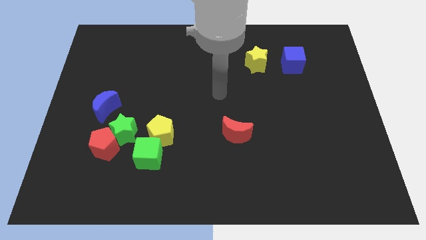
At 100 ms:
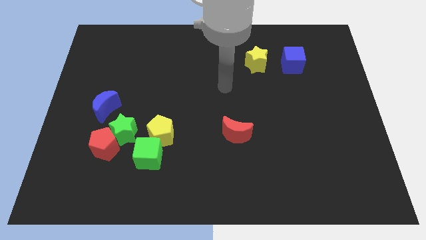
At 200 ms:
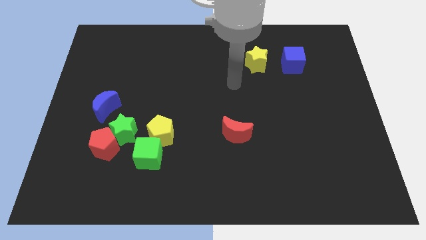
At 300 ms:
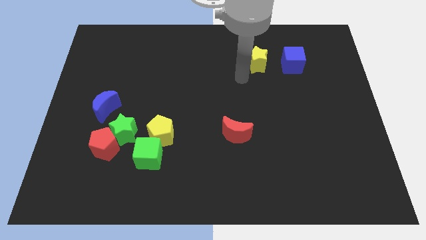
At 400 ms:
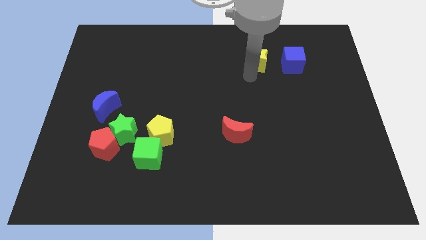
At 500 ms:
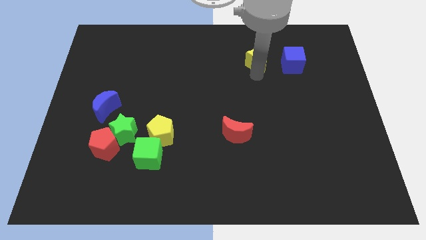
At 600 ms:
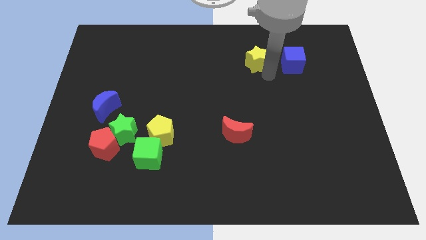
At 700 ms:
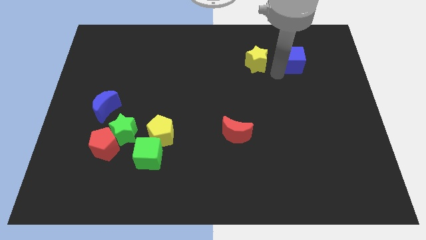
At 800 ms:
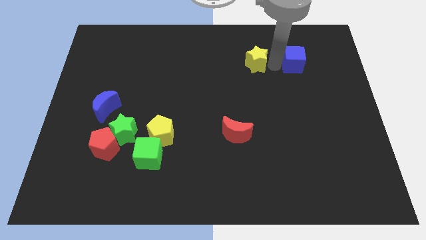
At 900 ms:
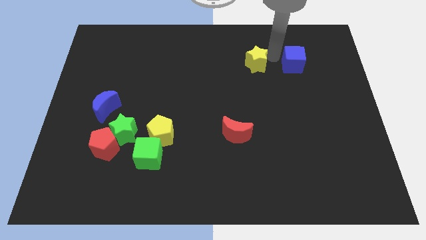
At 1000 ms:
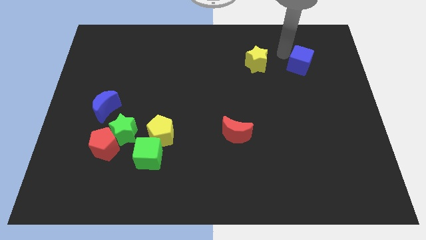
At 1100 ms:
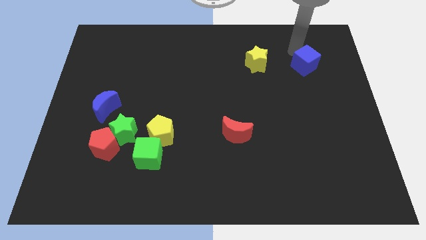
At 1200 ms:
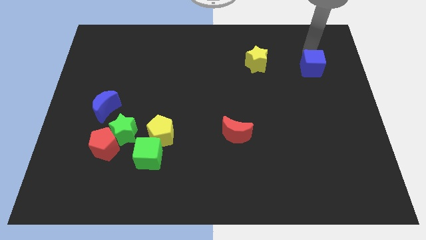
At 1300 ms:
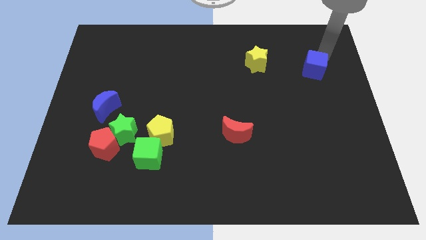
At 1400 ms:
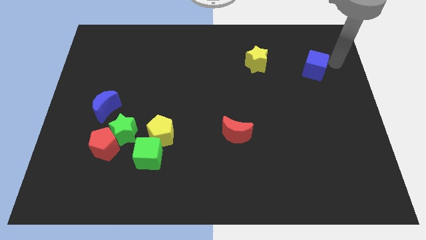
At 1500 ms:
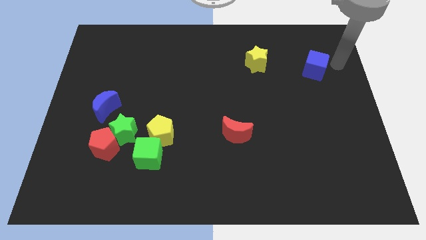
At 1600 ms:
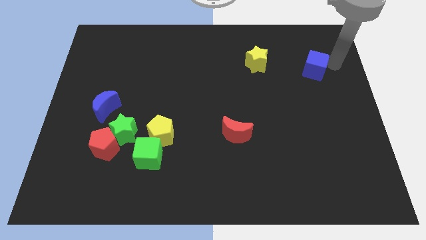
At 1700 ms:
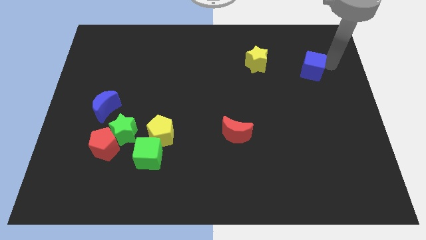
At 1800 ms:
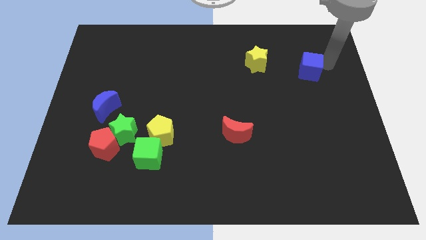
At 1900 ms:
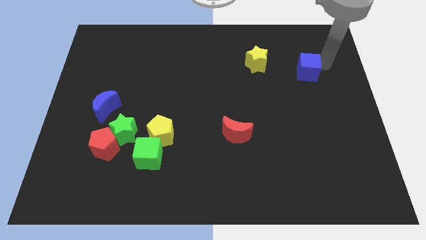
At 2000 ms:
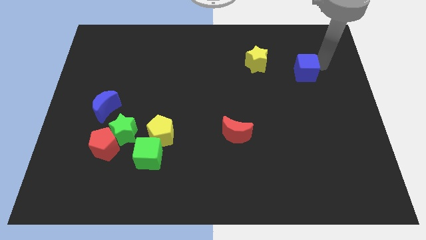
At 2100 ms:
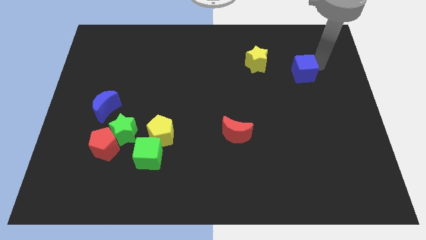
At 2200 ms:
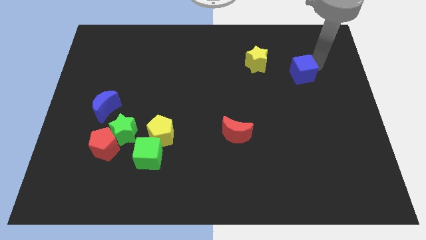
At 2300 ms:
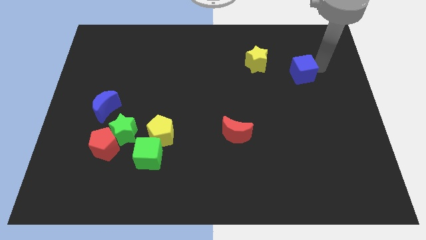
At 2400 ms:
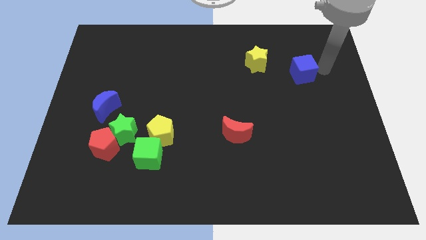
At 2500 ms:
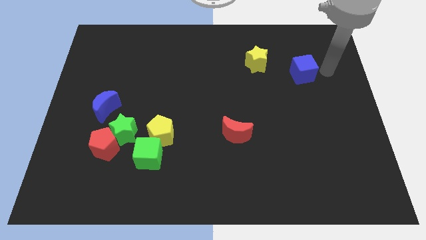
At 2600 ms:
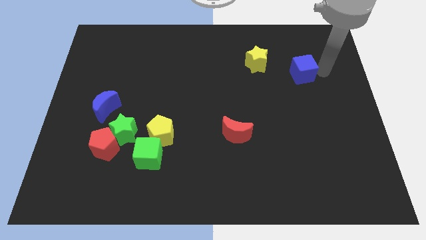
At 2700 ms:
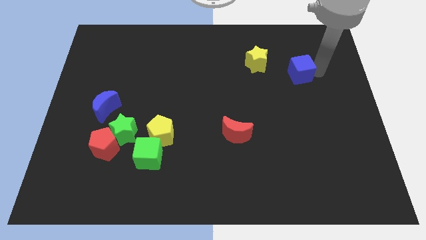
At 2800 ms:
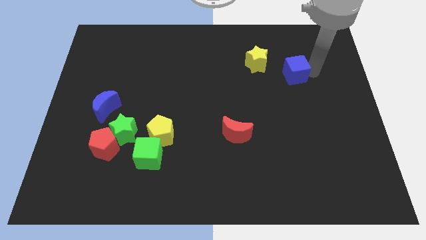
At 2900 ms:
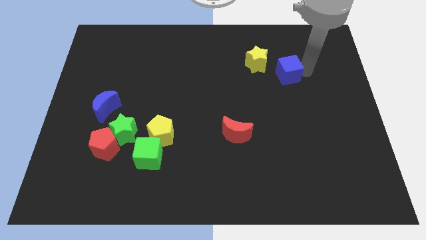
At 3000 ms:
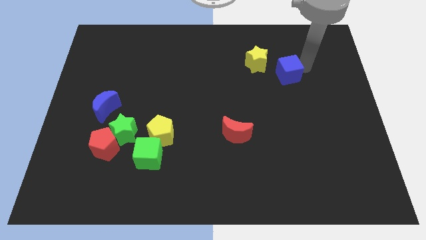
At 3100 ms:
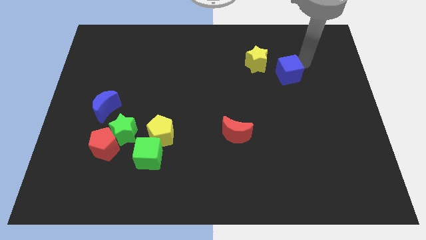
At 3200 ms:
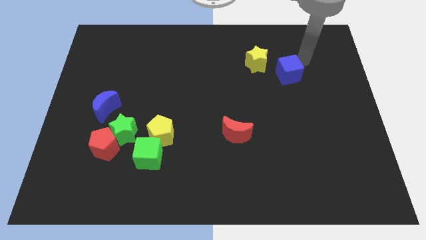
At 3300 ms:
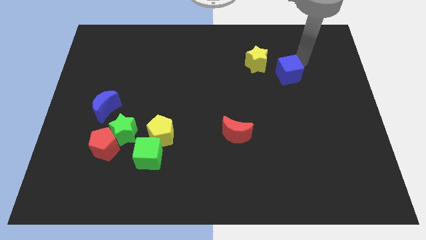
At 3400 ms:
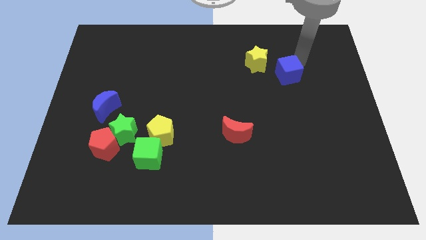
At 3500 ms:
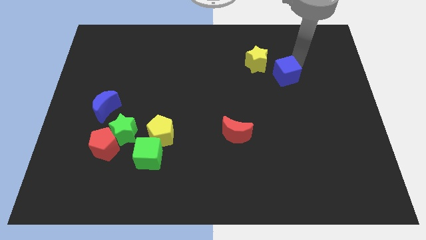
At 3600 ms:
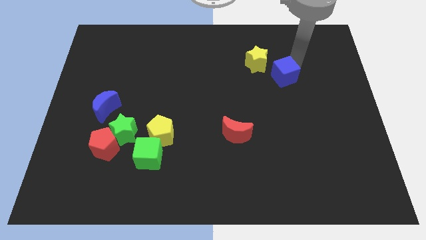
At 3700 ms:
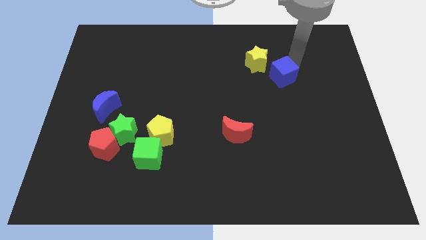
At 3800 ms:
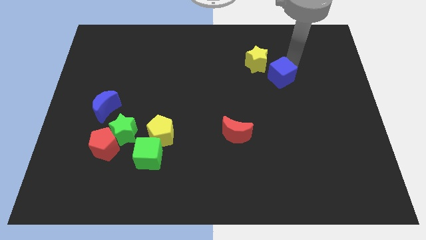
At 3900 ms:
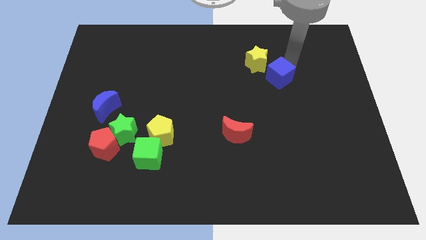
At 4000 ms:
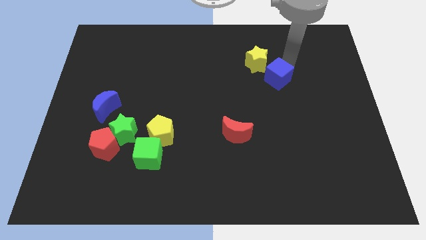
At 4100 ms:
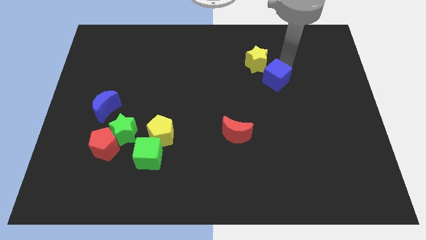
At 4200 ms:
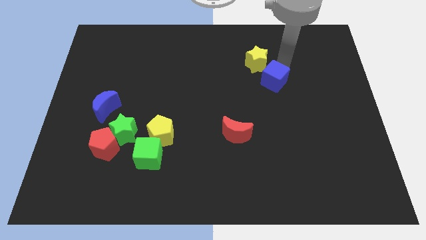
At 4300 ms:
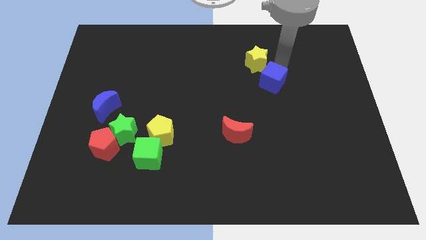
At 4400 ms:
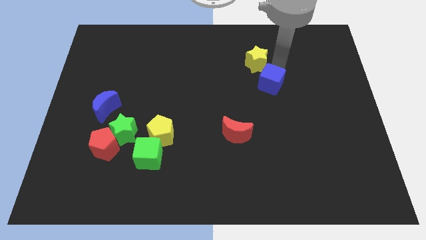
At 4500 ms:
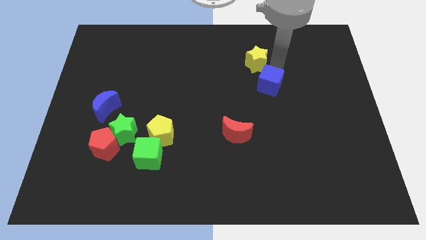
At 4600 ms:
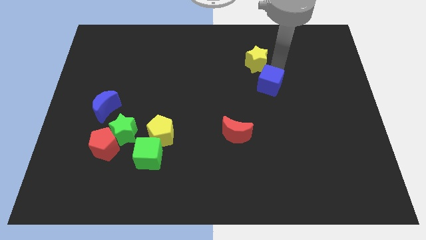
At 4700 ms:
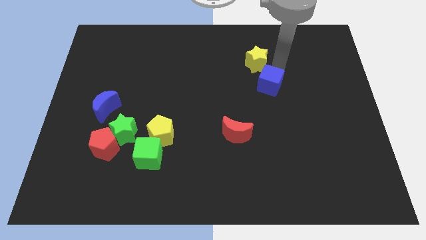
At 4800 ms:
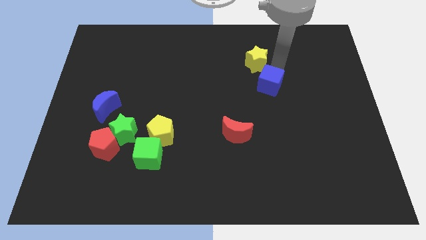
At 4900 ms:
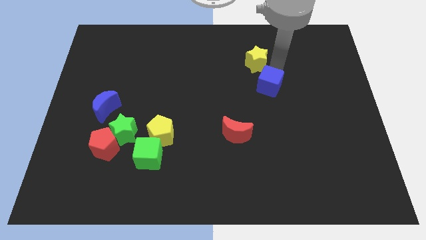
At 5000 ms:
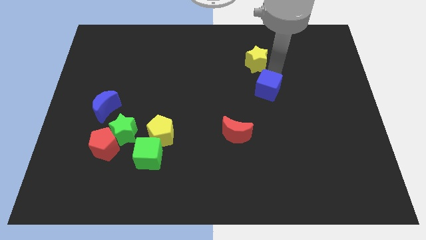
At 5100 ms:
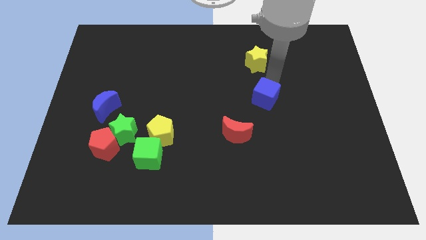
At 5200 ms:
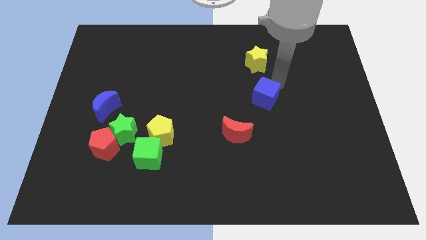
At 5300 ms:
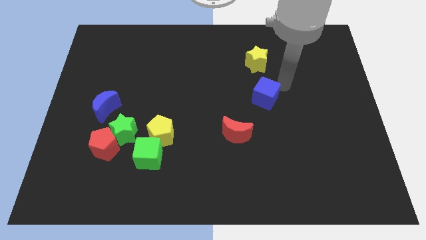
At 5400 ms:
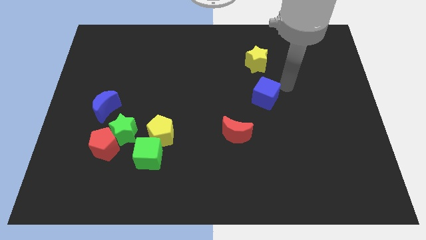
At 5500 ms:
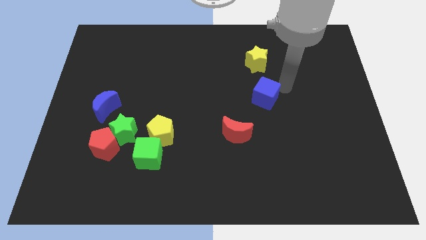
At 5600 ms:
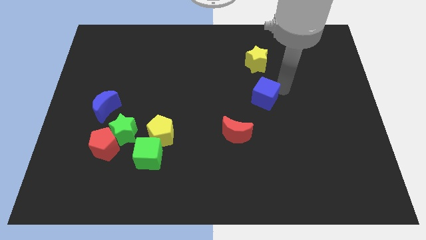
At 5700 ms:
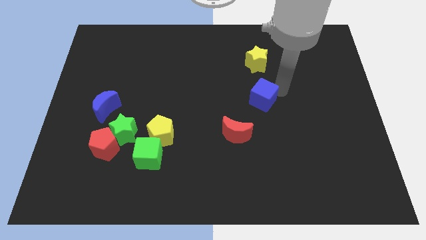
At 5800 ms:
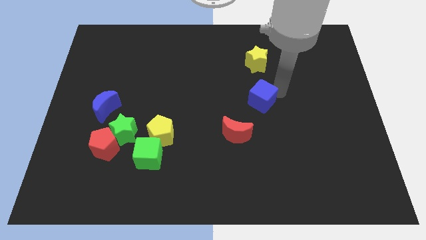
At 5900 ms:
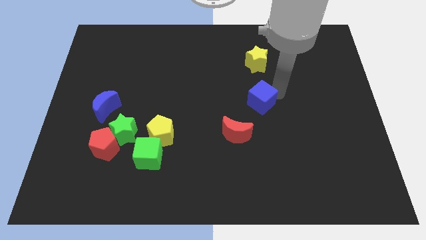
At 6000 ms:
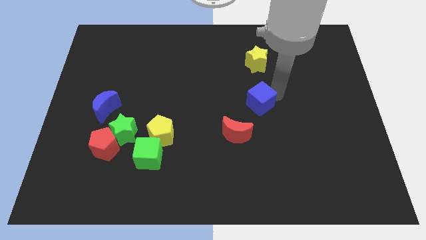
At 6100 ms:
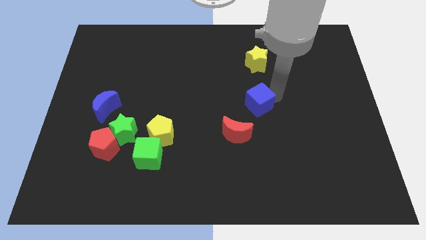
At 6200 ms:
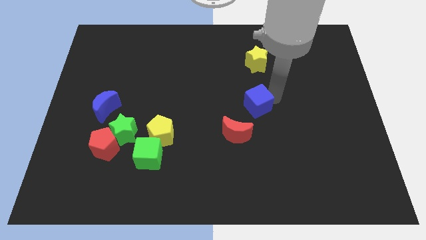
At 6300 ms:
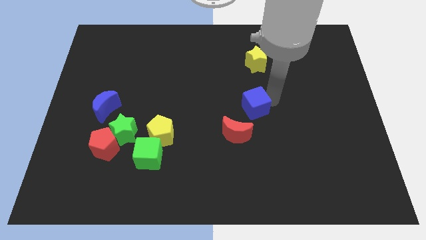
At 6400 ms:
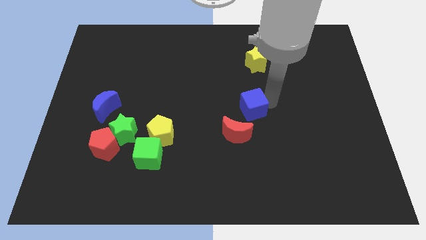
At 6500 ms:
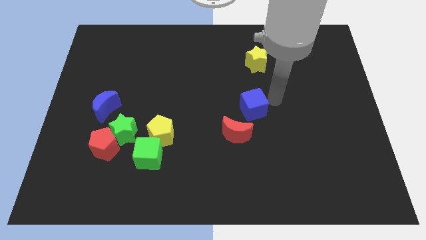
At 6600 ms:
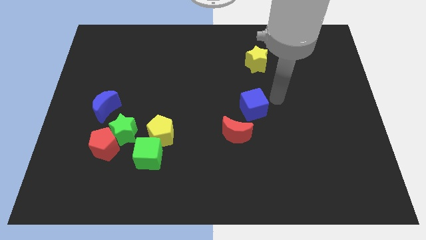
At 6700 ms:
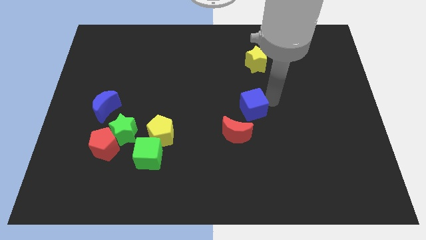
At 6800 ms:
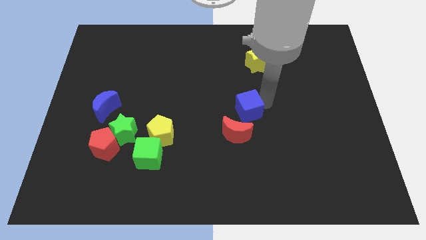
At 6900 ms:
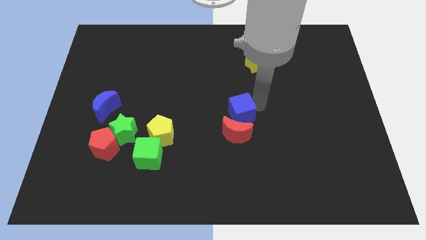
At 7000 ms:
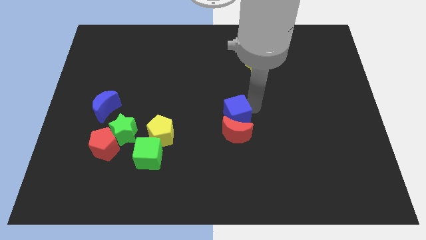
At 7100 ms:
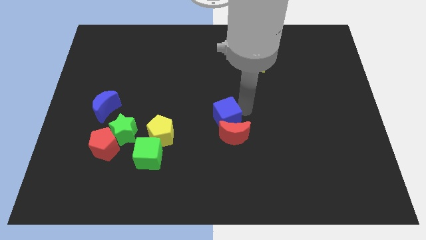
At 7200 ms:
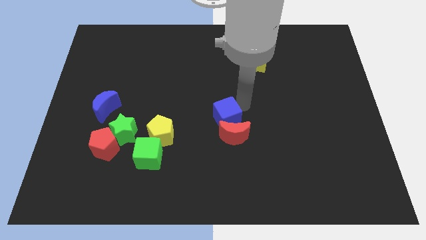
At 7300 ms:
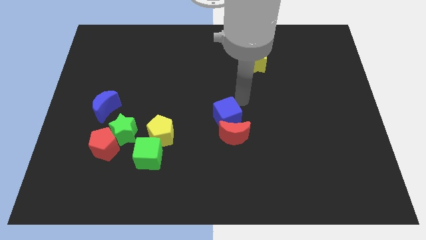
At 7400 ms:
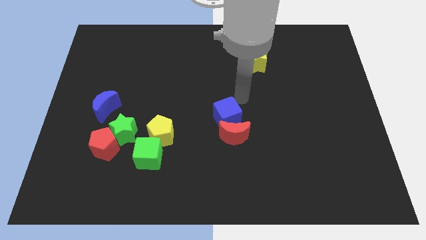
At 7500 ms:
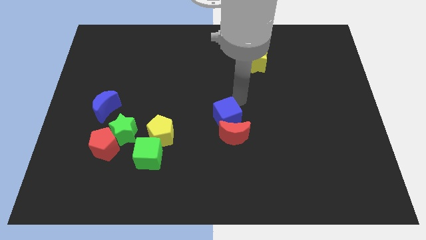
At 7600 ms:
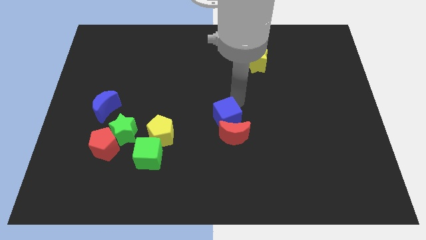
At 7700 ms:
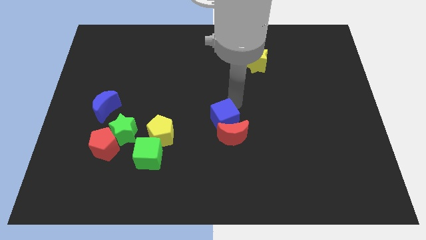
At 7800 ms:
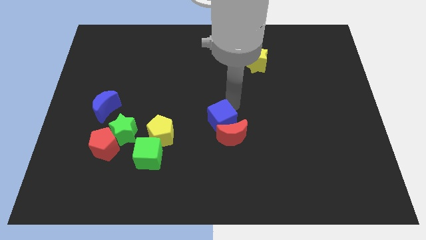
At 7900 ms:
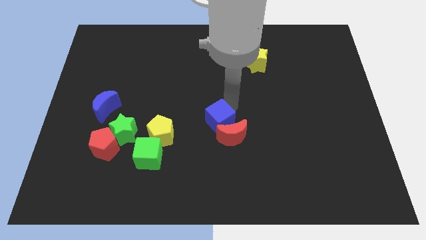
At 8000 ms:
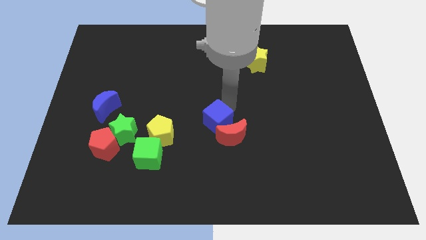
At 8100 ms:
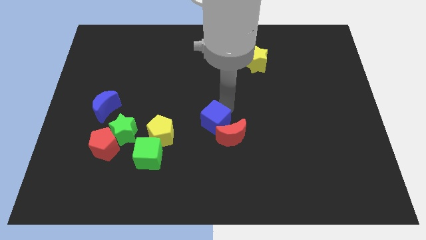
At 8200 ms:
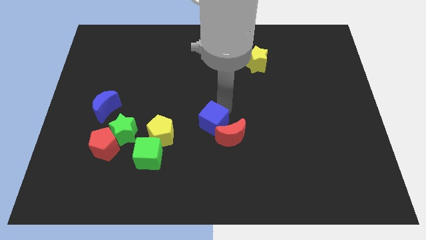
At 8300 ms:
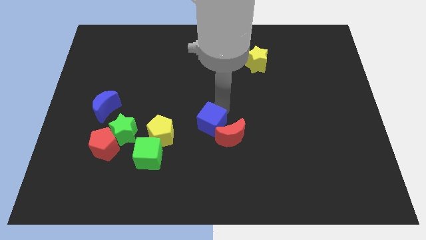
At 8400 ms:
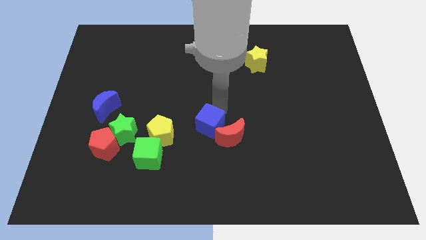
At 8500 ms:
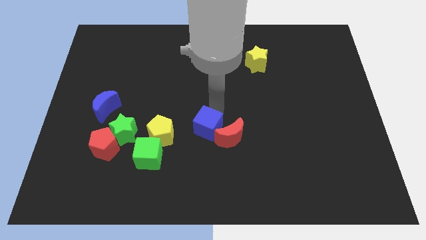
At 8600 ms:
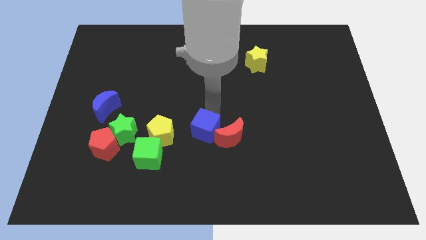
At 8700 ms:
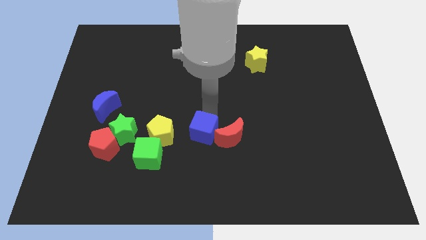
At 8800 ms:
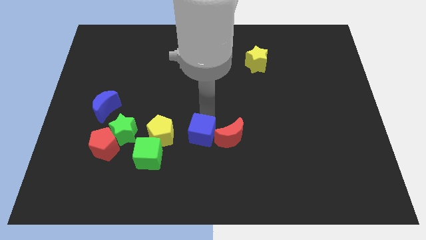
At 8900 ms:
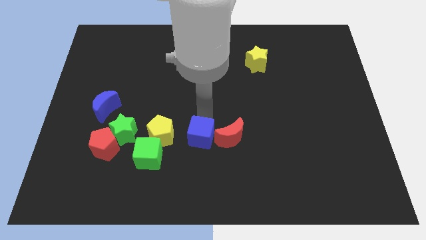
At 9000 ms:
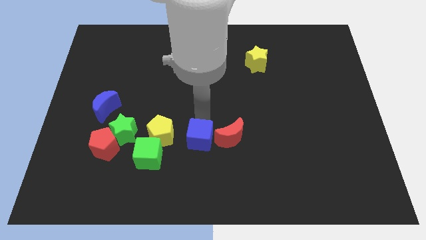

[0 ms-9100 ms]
slide the blue cube just right of the green cube
